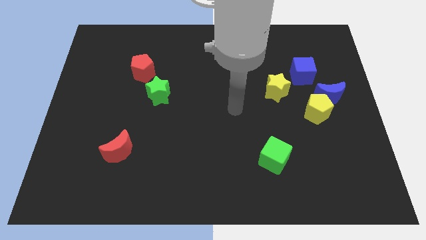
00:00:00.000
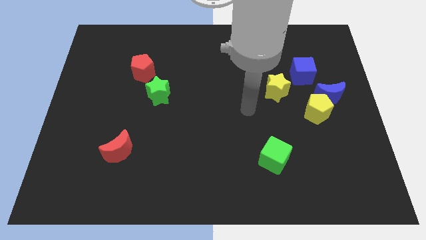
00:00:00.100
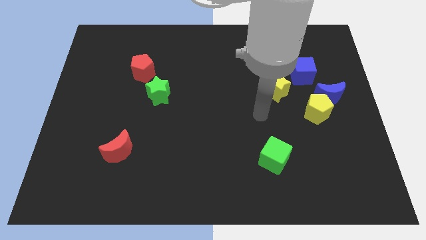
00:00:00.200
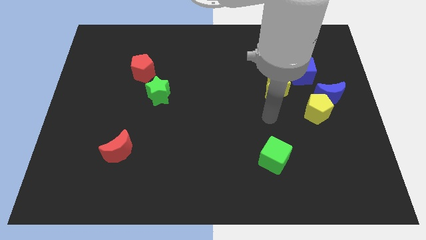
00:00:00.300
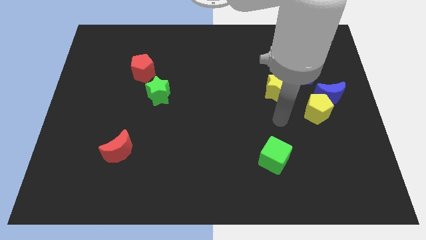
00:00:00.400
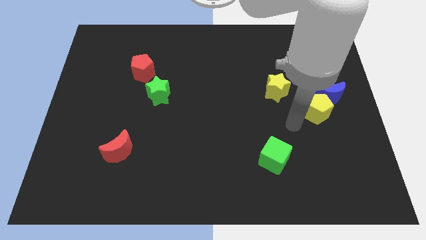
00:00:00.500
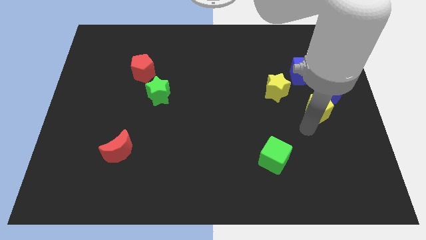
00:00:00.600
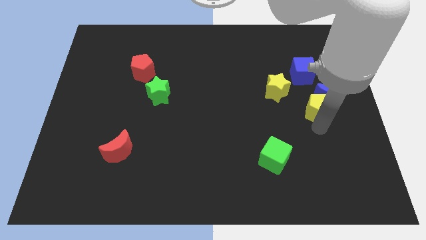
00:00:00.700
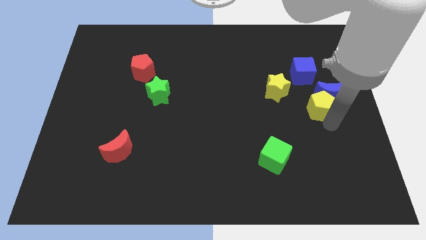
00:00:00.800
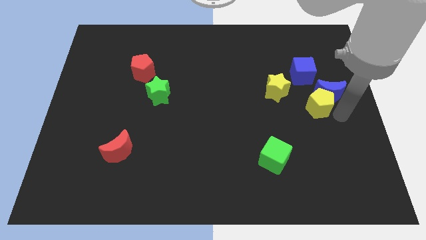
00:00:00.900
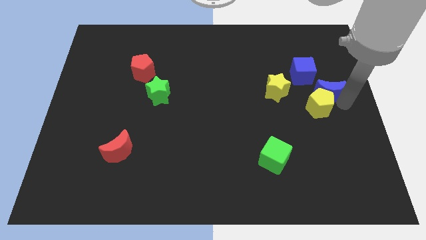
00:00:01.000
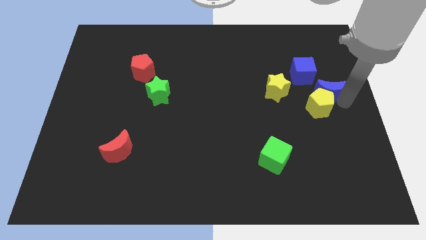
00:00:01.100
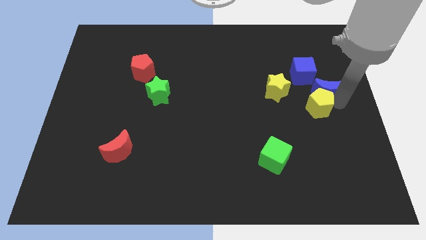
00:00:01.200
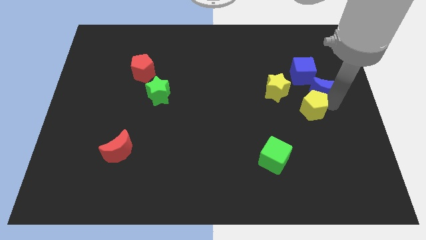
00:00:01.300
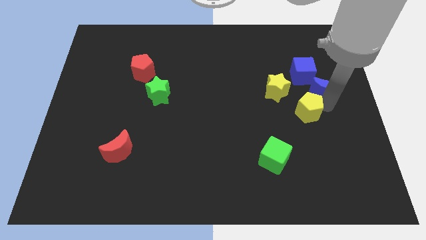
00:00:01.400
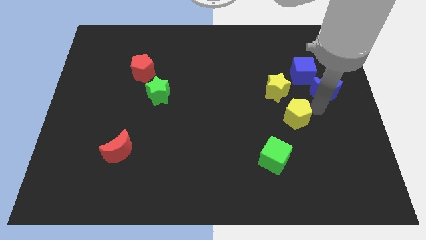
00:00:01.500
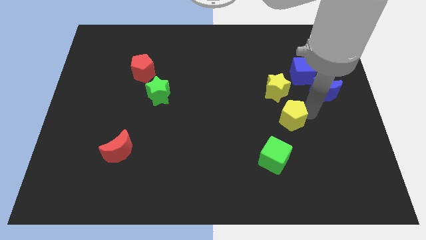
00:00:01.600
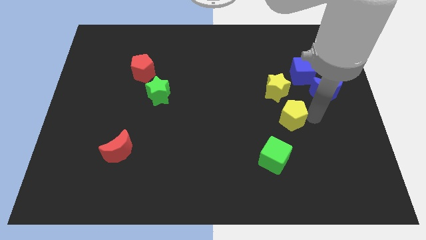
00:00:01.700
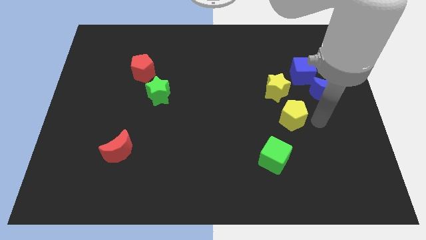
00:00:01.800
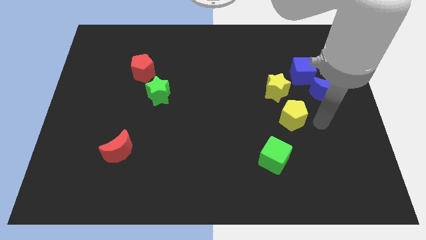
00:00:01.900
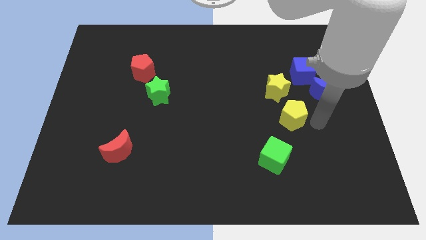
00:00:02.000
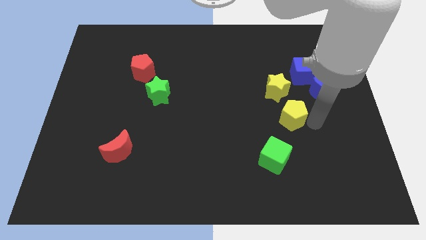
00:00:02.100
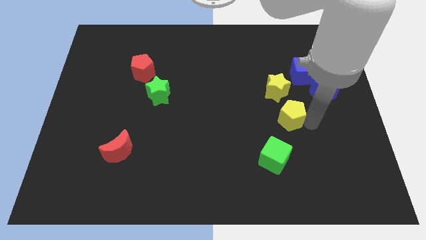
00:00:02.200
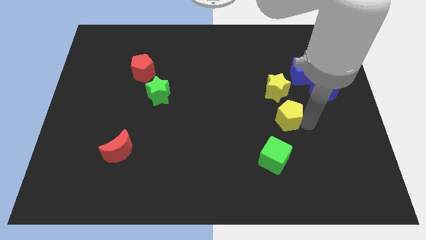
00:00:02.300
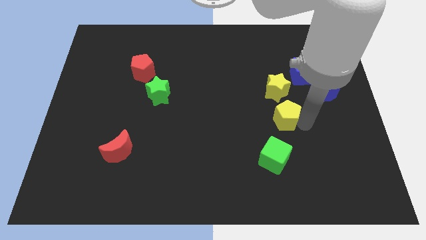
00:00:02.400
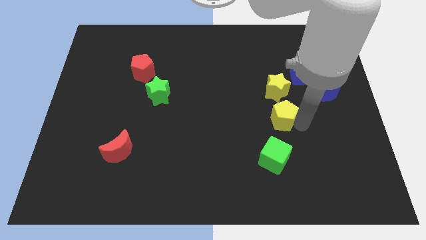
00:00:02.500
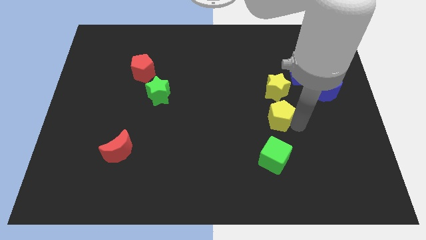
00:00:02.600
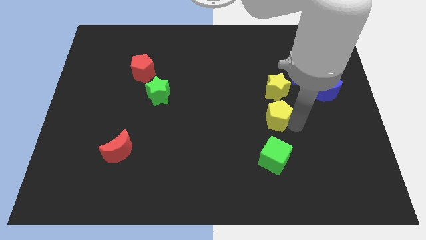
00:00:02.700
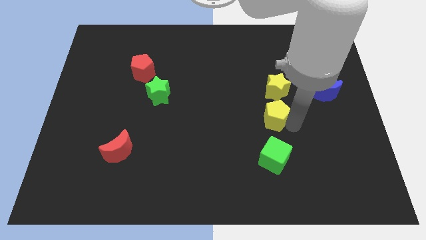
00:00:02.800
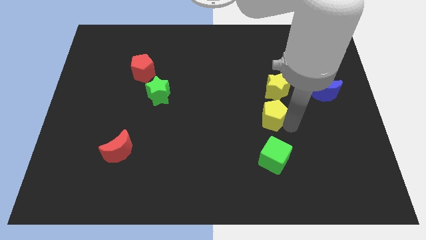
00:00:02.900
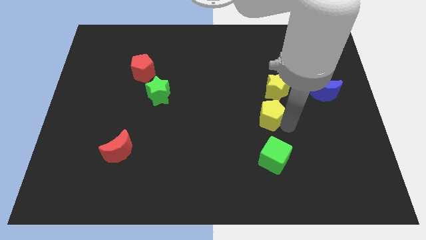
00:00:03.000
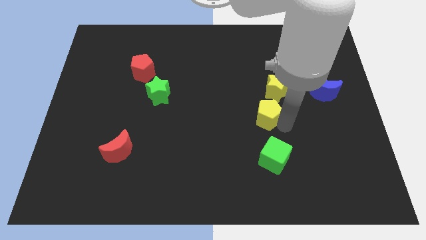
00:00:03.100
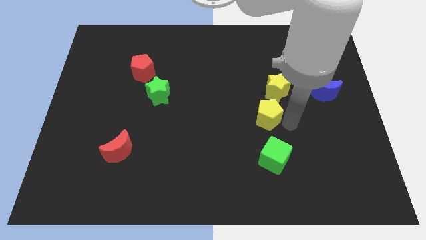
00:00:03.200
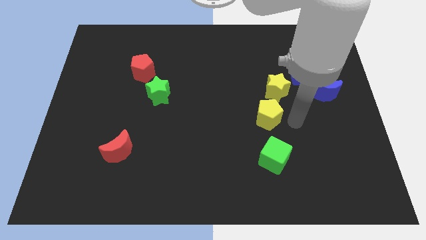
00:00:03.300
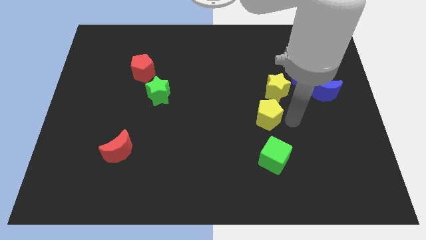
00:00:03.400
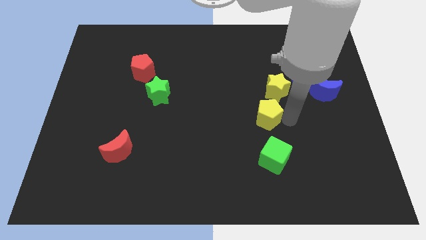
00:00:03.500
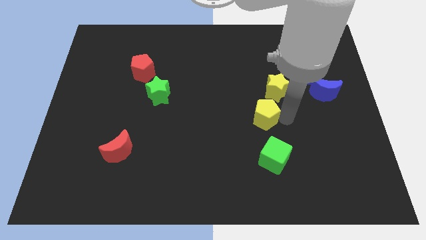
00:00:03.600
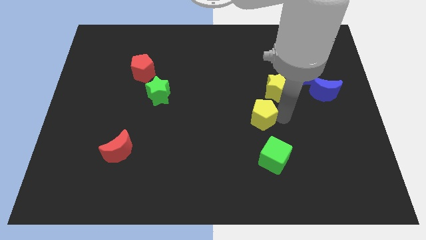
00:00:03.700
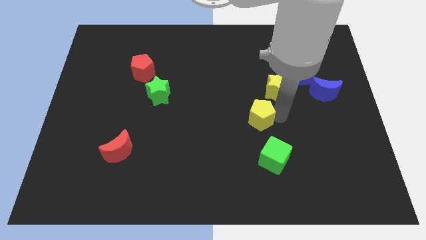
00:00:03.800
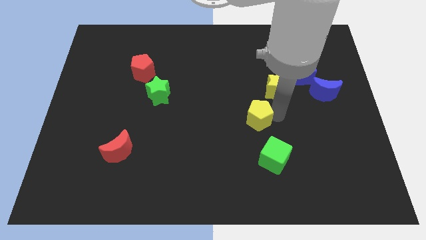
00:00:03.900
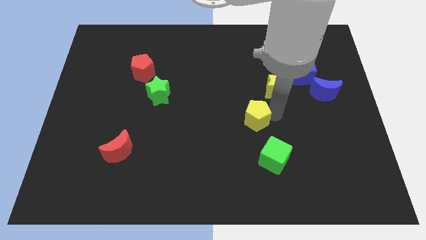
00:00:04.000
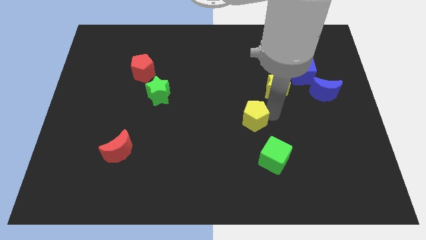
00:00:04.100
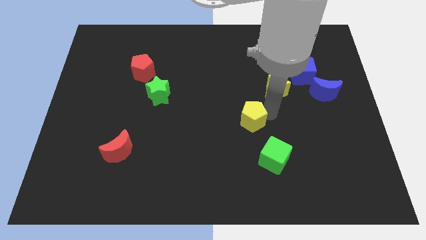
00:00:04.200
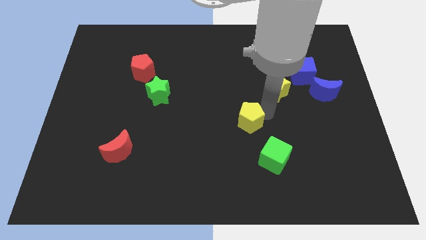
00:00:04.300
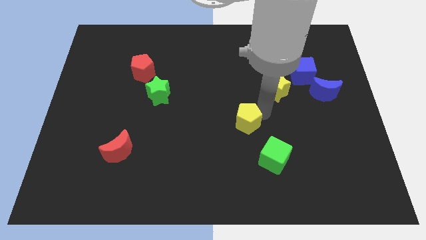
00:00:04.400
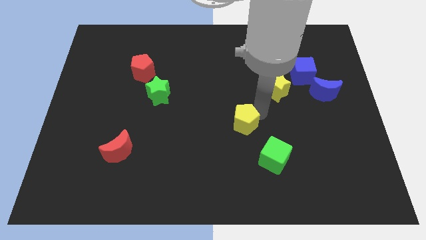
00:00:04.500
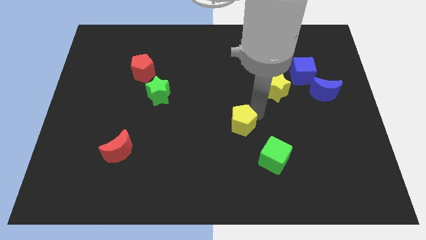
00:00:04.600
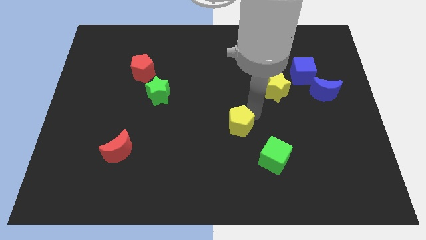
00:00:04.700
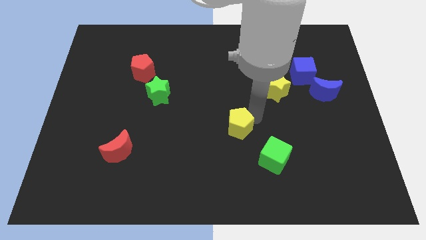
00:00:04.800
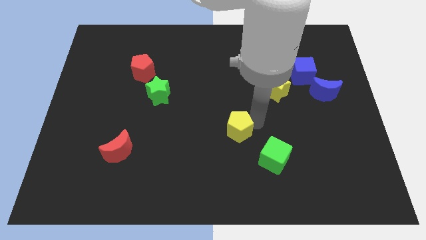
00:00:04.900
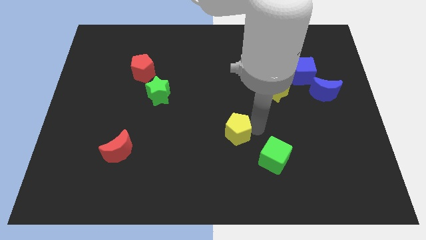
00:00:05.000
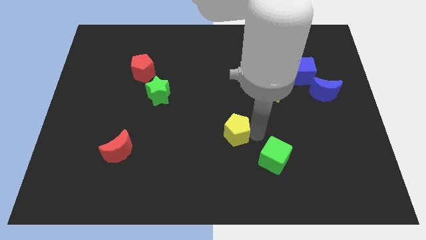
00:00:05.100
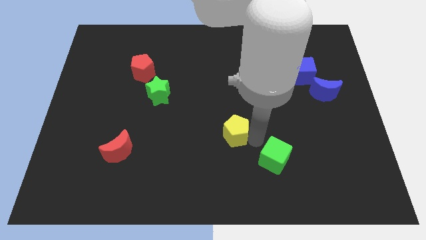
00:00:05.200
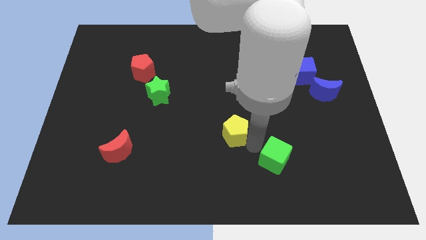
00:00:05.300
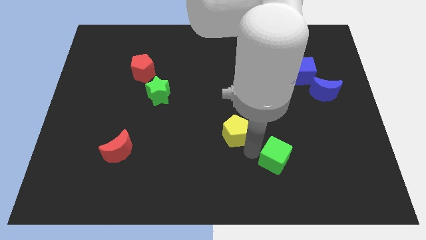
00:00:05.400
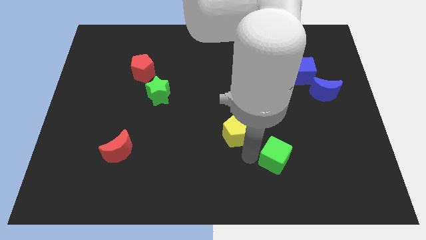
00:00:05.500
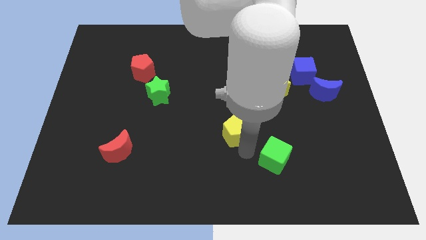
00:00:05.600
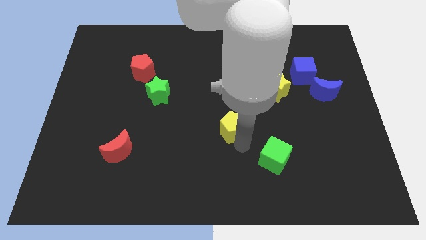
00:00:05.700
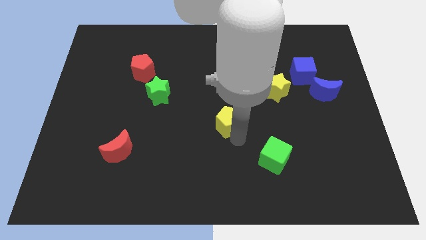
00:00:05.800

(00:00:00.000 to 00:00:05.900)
slide the yellow pentagon to the left

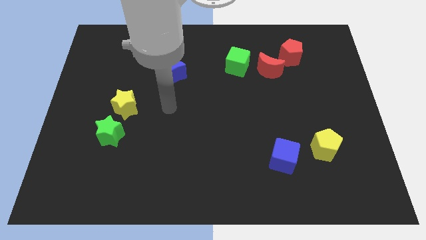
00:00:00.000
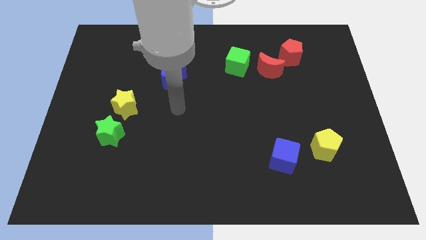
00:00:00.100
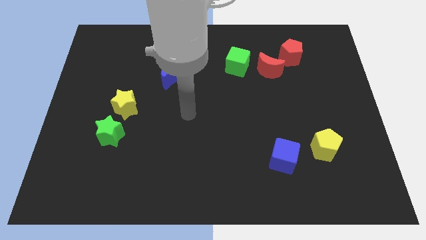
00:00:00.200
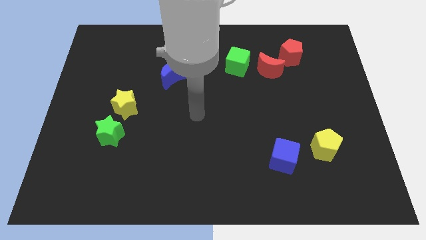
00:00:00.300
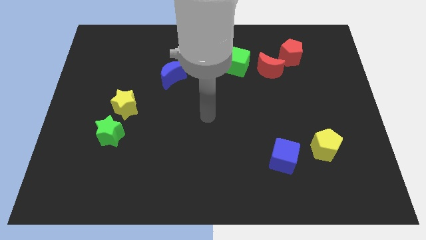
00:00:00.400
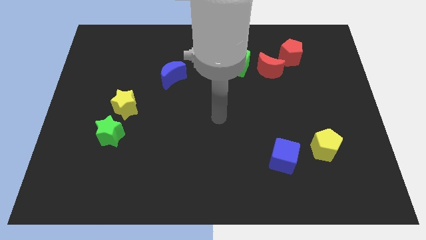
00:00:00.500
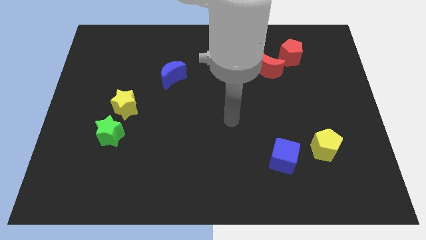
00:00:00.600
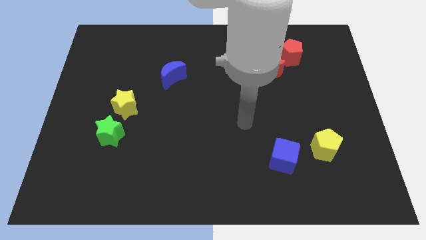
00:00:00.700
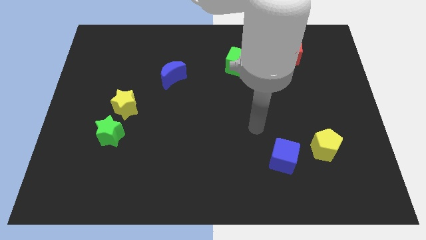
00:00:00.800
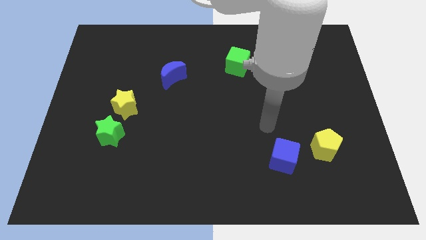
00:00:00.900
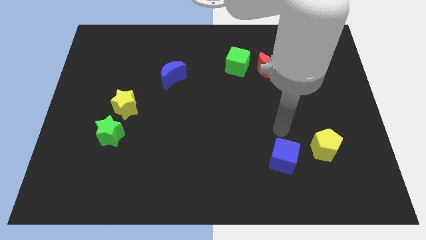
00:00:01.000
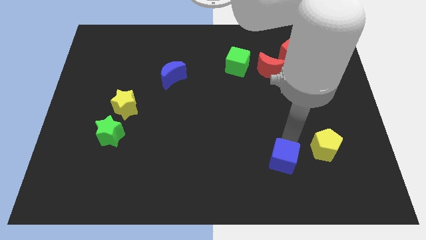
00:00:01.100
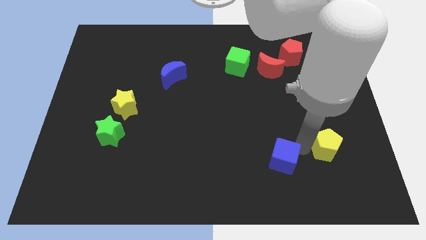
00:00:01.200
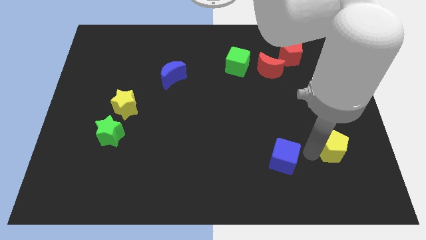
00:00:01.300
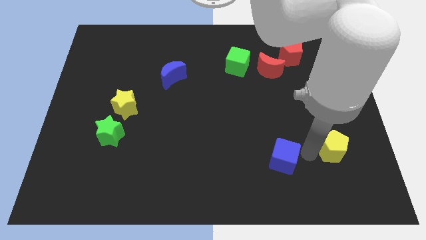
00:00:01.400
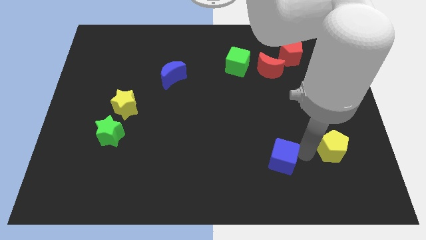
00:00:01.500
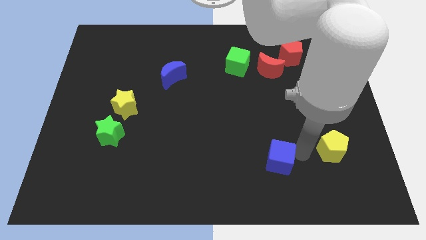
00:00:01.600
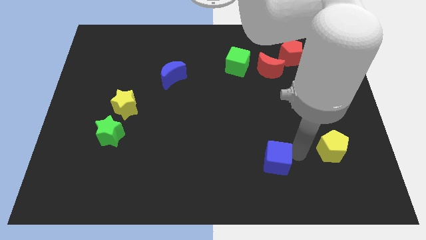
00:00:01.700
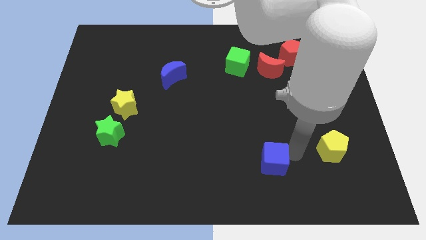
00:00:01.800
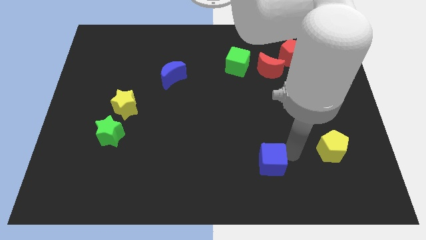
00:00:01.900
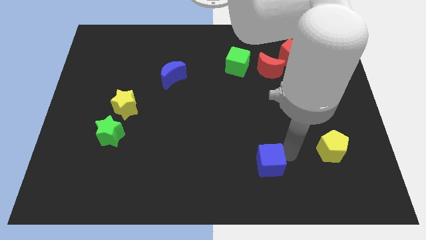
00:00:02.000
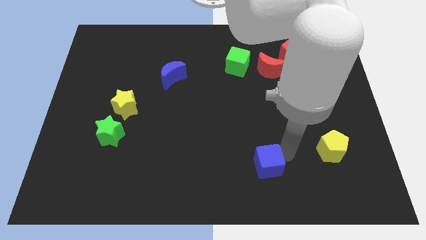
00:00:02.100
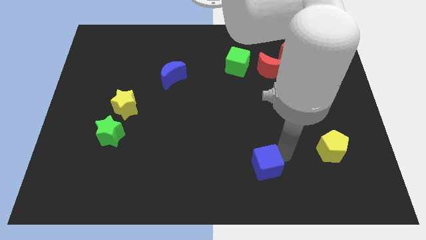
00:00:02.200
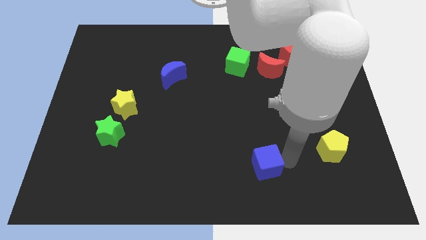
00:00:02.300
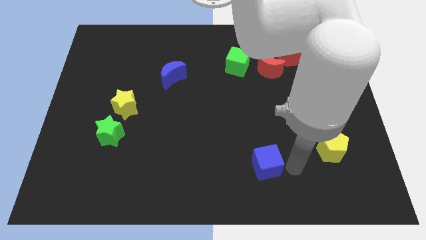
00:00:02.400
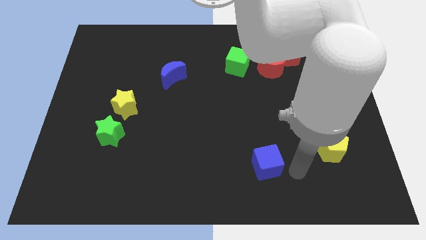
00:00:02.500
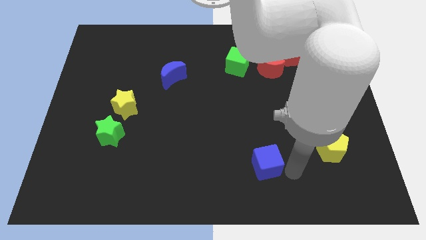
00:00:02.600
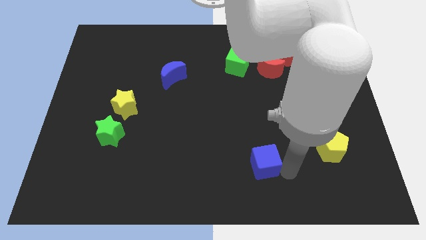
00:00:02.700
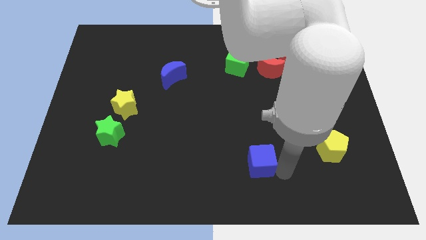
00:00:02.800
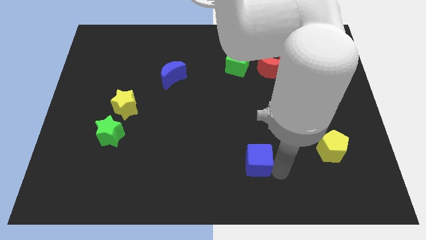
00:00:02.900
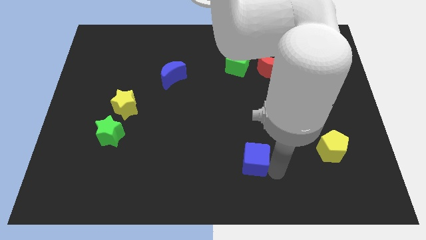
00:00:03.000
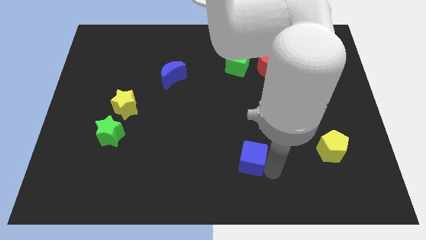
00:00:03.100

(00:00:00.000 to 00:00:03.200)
slide the blue cube a little bit left
